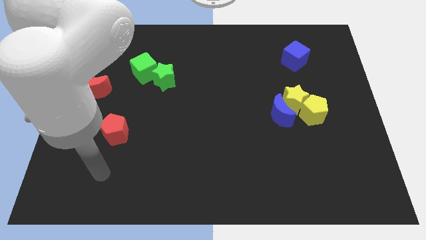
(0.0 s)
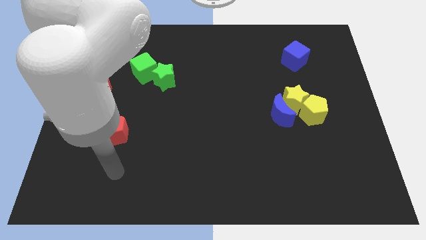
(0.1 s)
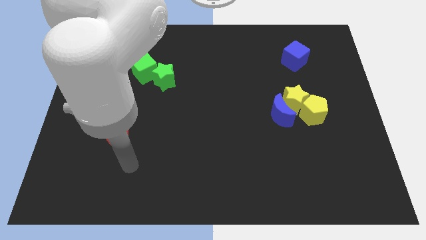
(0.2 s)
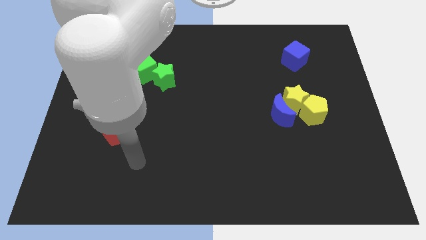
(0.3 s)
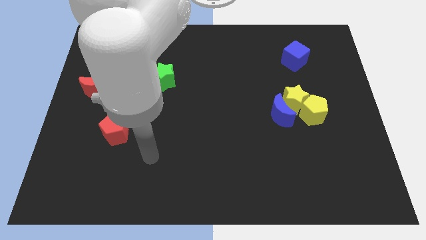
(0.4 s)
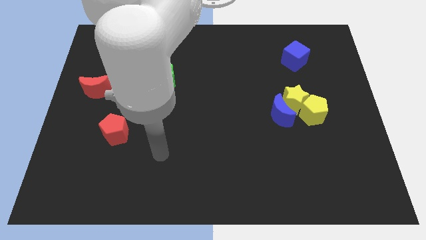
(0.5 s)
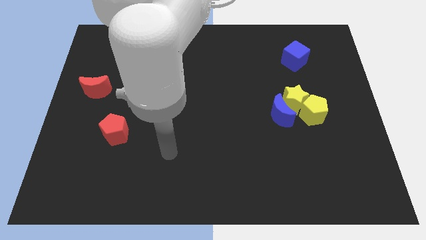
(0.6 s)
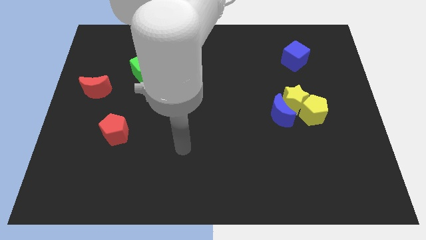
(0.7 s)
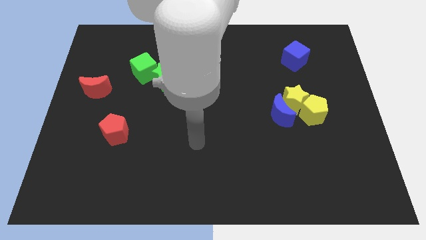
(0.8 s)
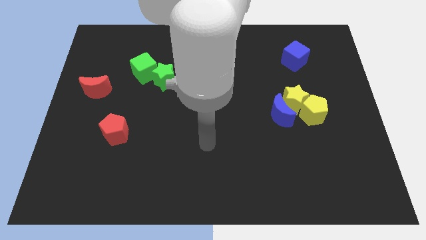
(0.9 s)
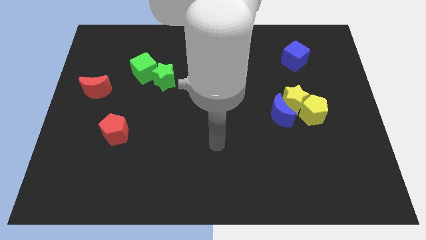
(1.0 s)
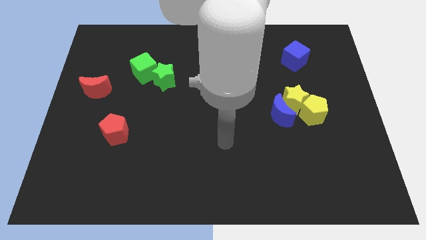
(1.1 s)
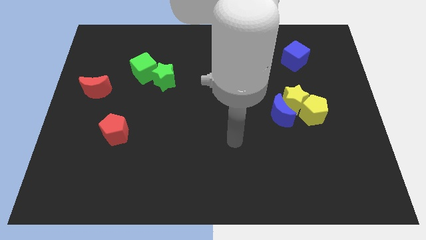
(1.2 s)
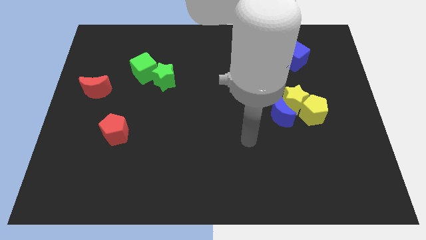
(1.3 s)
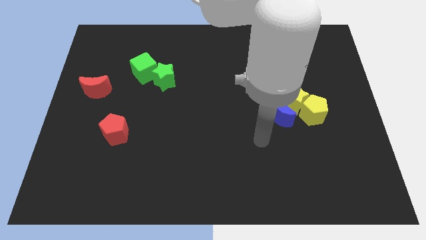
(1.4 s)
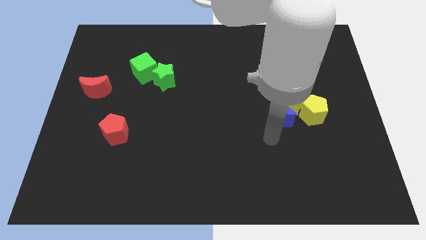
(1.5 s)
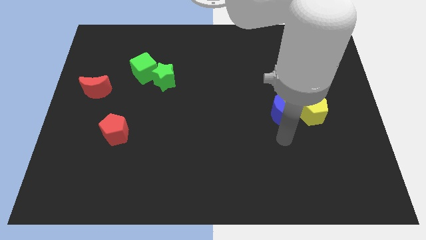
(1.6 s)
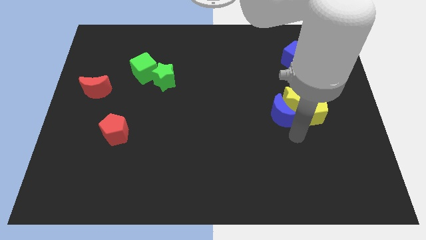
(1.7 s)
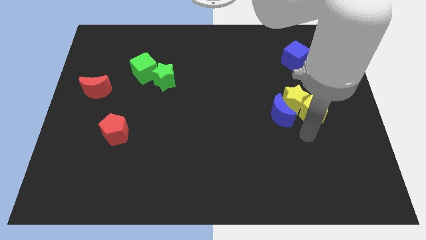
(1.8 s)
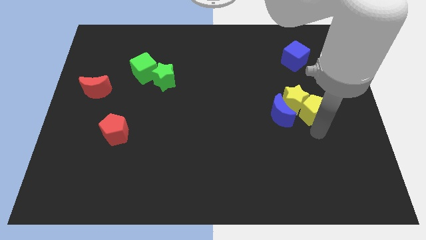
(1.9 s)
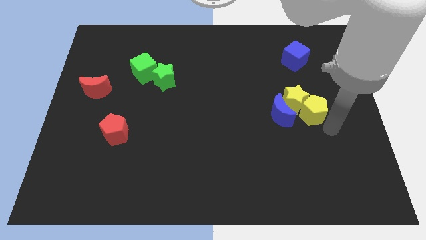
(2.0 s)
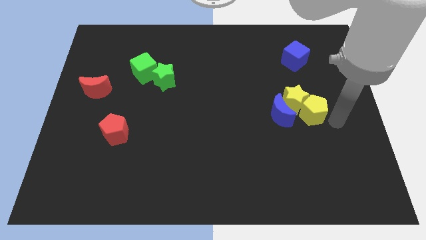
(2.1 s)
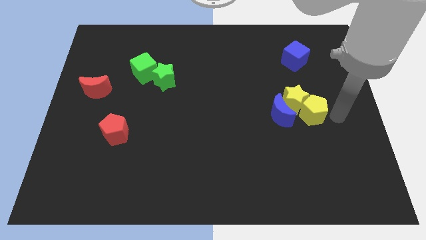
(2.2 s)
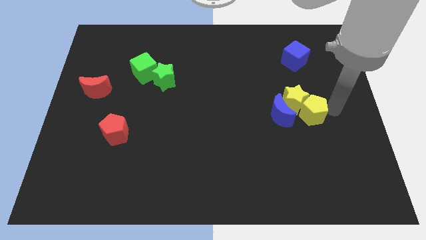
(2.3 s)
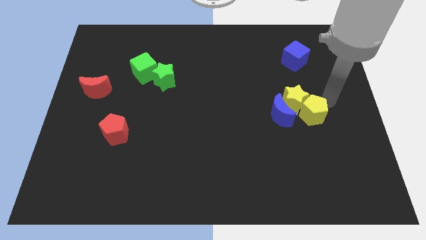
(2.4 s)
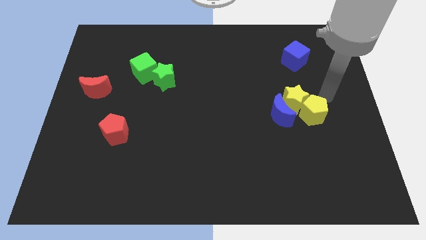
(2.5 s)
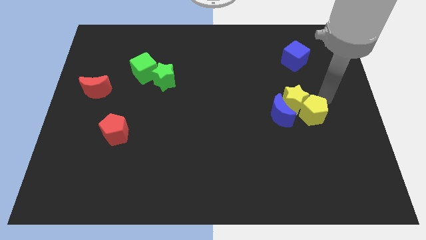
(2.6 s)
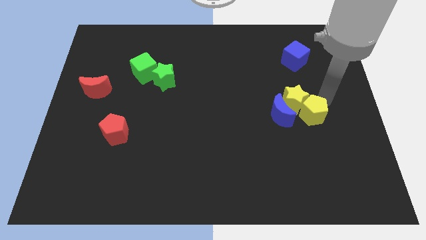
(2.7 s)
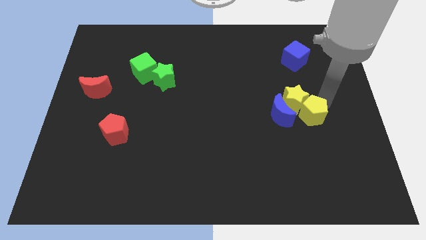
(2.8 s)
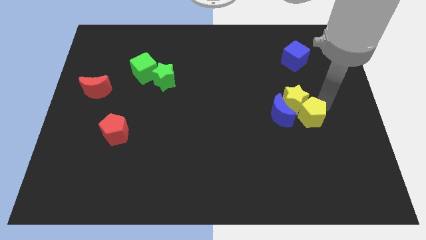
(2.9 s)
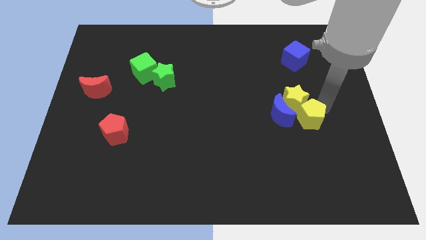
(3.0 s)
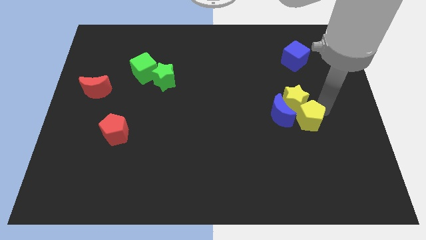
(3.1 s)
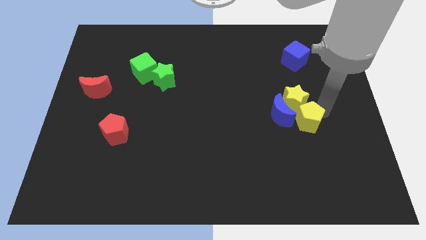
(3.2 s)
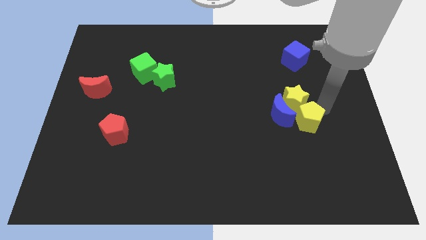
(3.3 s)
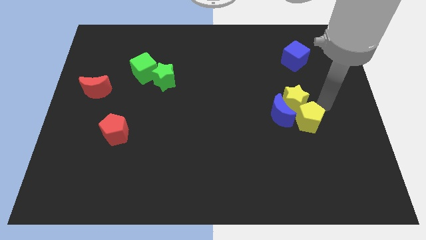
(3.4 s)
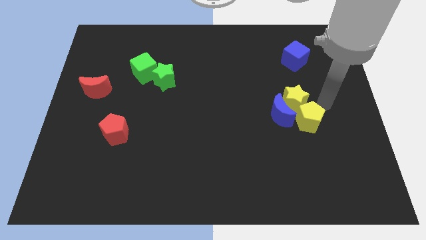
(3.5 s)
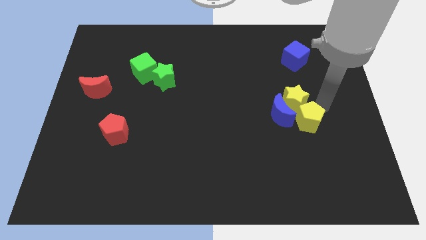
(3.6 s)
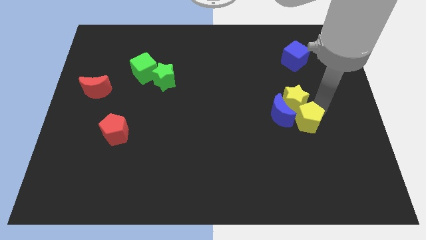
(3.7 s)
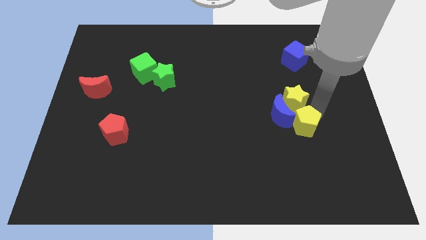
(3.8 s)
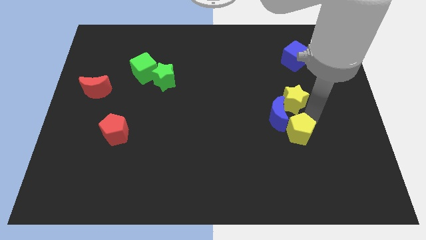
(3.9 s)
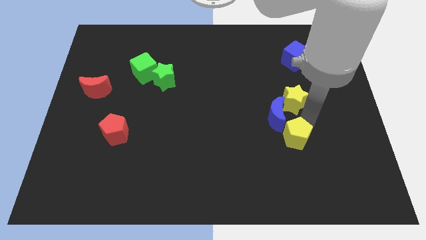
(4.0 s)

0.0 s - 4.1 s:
move the yellow pentagon a little down and then to the left

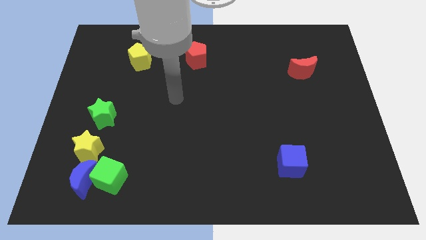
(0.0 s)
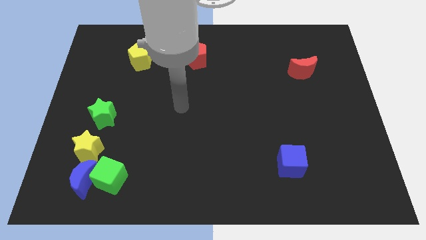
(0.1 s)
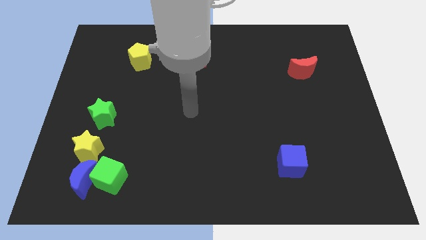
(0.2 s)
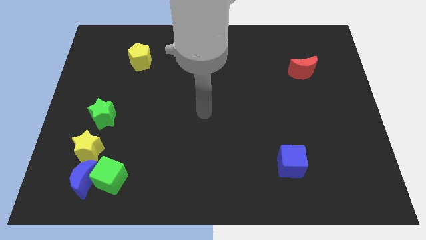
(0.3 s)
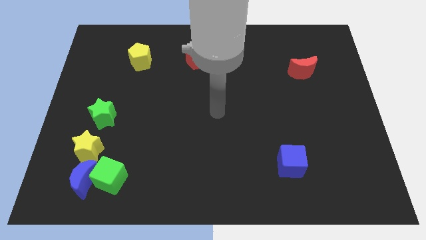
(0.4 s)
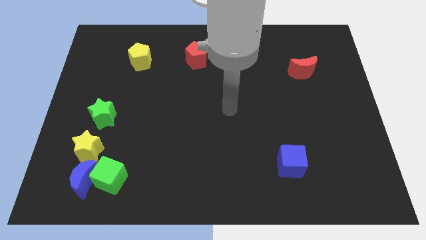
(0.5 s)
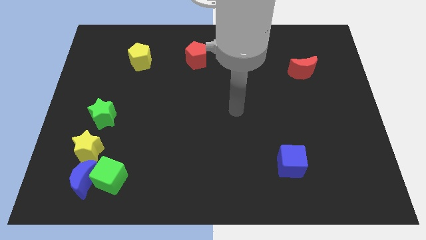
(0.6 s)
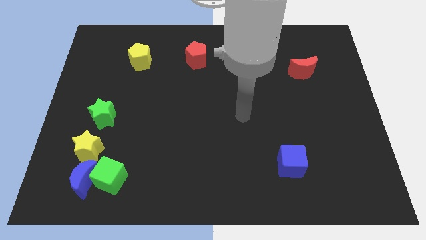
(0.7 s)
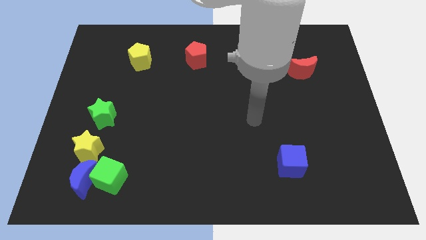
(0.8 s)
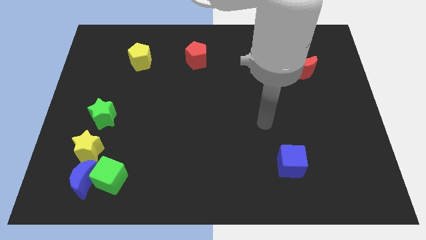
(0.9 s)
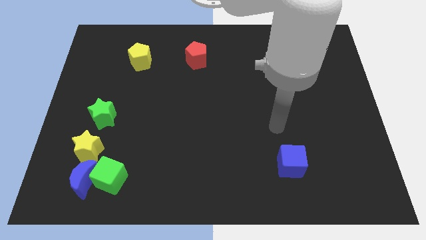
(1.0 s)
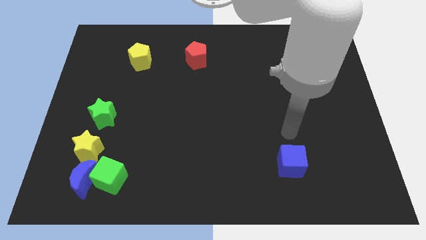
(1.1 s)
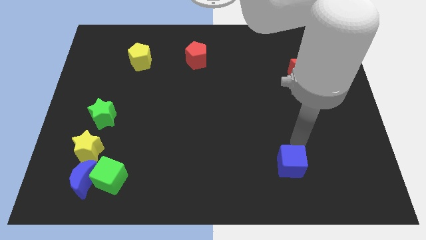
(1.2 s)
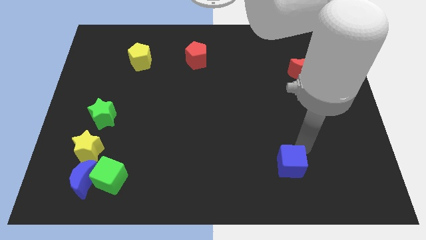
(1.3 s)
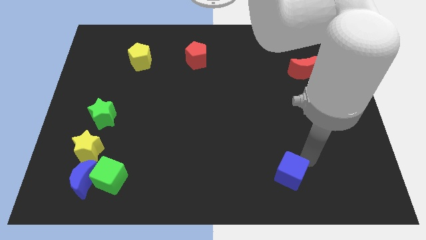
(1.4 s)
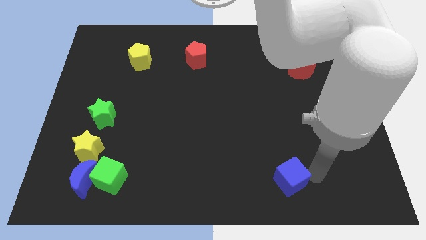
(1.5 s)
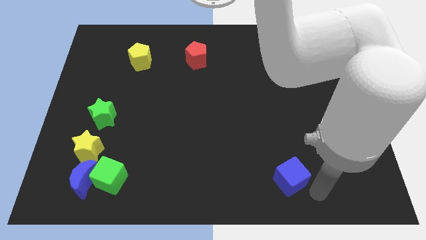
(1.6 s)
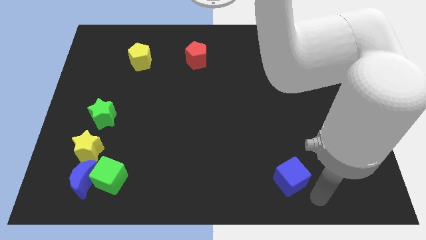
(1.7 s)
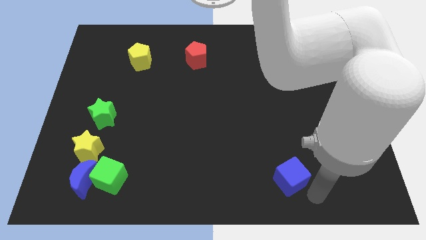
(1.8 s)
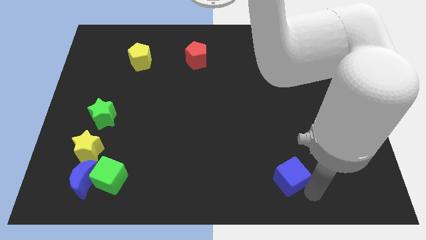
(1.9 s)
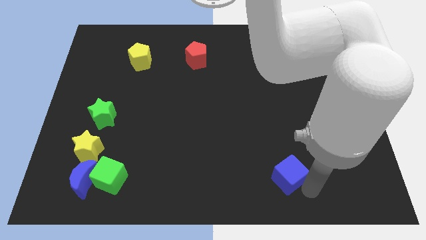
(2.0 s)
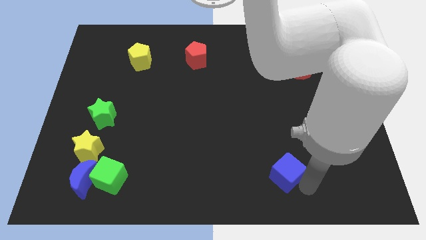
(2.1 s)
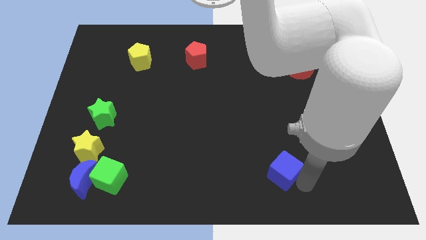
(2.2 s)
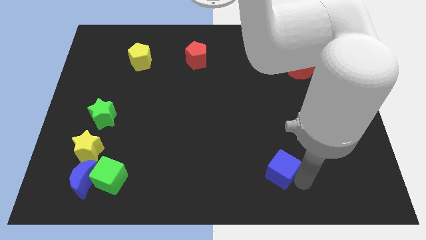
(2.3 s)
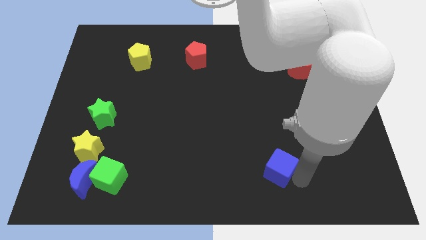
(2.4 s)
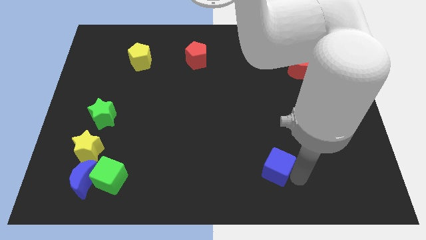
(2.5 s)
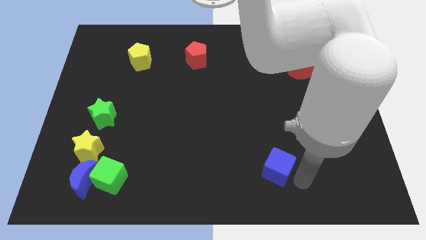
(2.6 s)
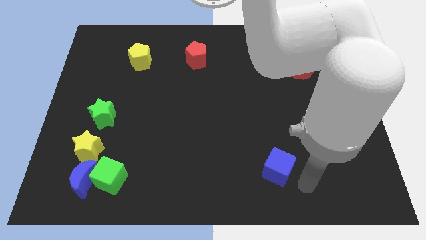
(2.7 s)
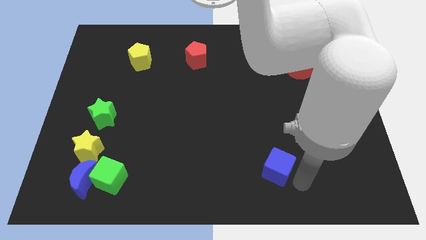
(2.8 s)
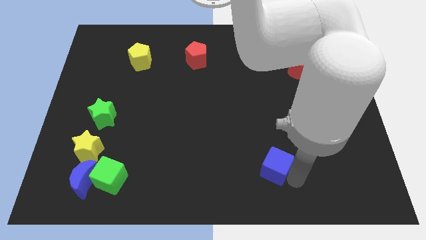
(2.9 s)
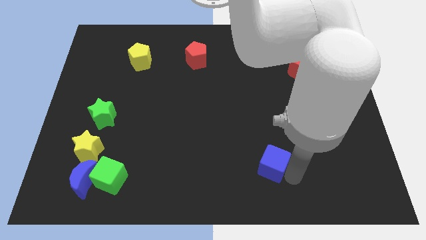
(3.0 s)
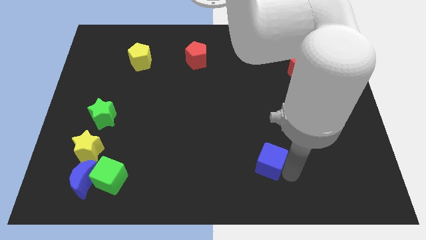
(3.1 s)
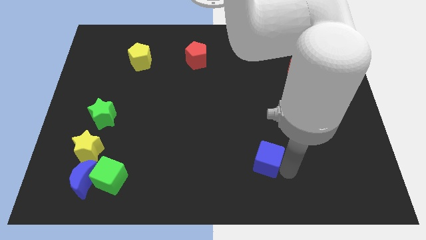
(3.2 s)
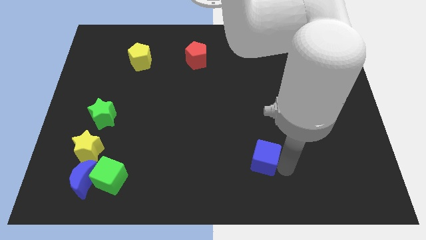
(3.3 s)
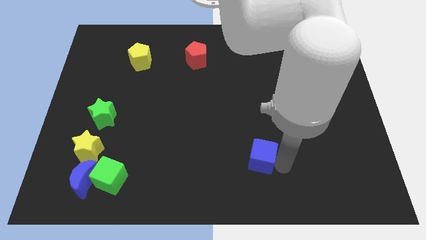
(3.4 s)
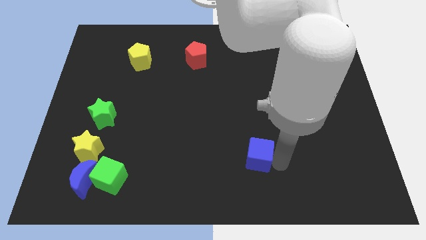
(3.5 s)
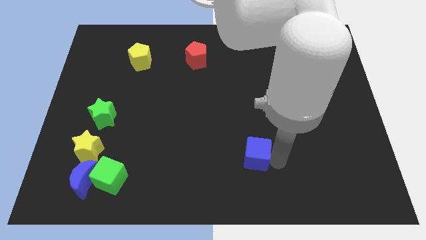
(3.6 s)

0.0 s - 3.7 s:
slide the blue cube somewhat to the left
